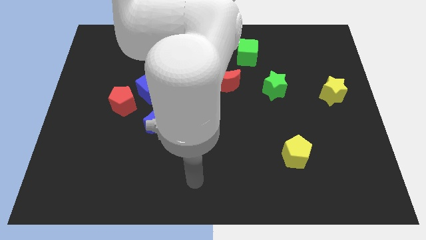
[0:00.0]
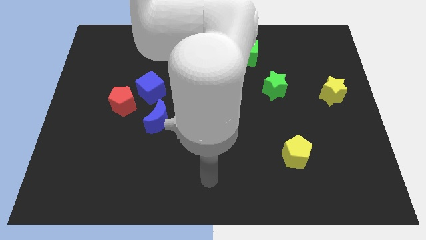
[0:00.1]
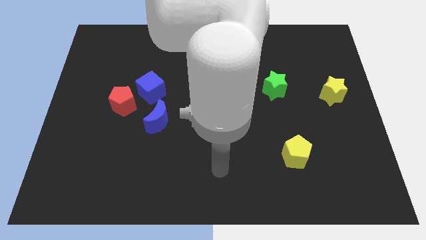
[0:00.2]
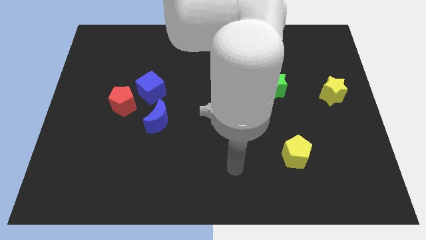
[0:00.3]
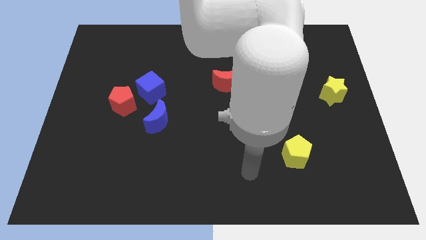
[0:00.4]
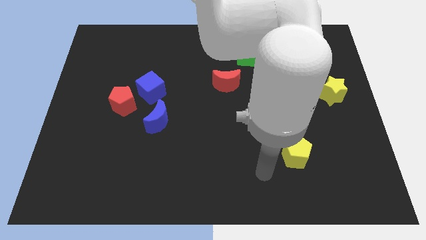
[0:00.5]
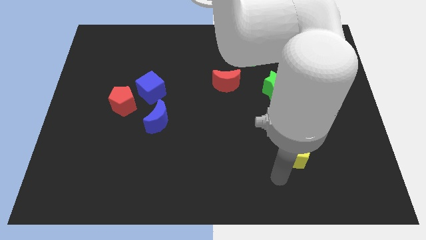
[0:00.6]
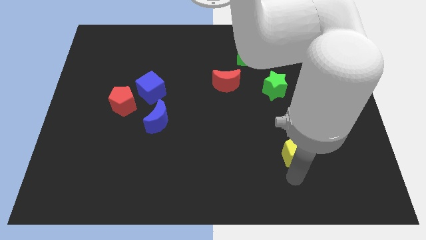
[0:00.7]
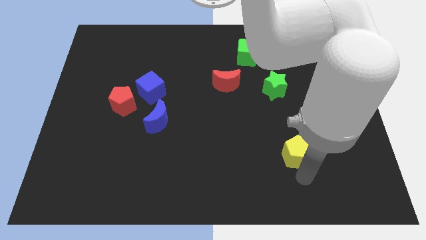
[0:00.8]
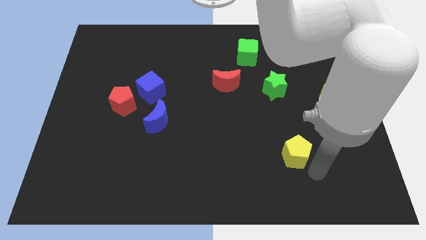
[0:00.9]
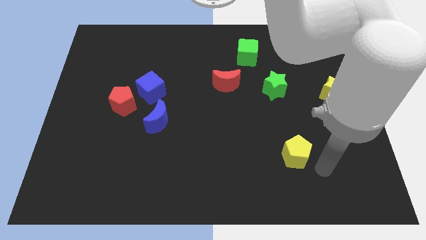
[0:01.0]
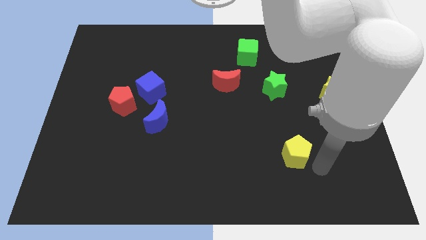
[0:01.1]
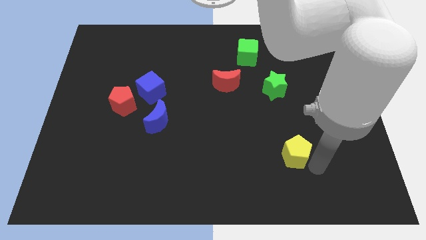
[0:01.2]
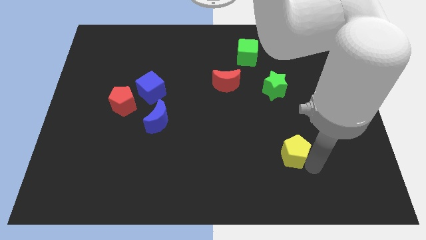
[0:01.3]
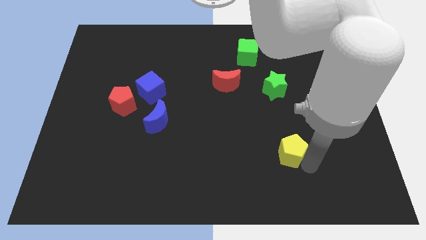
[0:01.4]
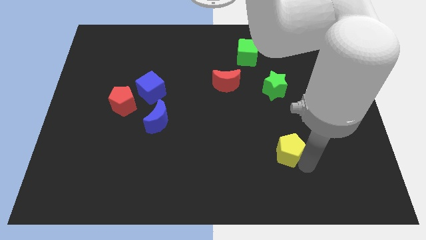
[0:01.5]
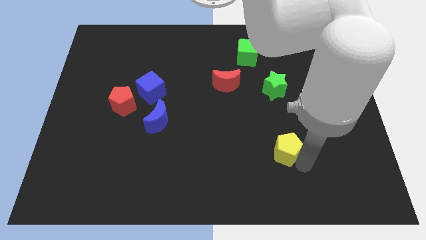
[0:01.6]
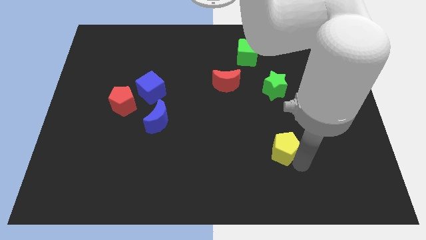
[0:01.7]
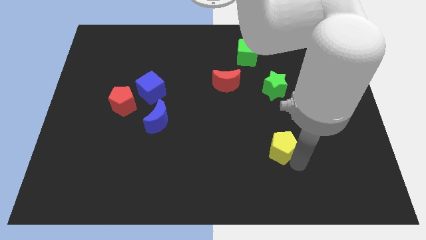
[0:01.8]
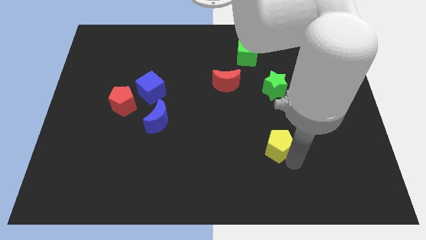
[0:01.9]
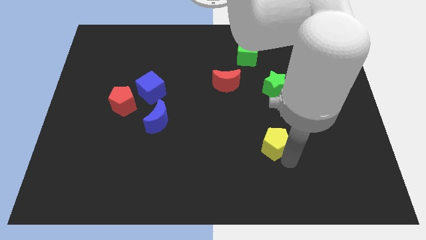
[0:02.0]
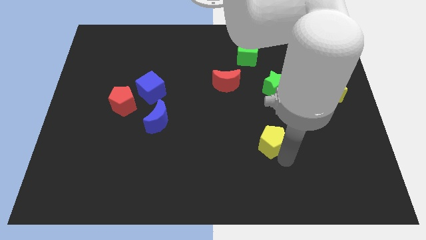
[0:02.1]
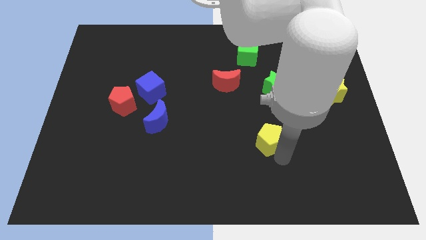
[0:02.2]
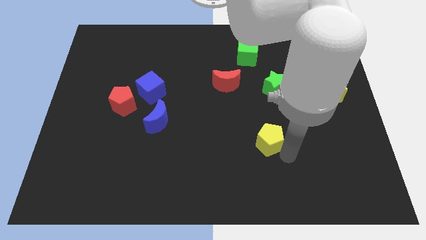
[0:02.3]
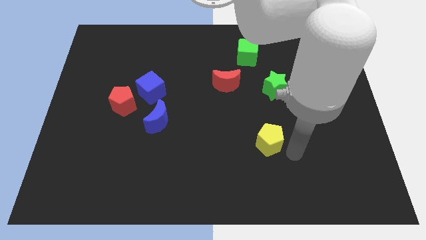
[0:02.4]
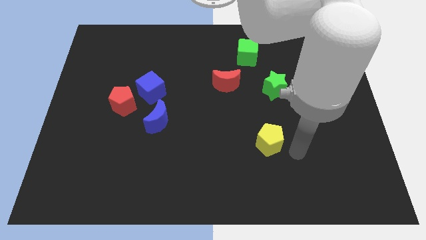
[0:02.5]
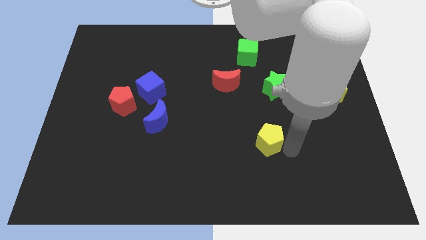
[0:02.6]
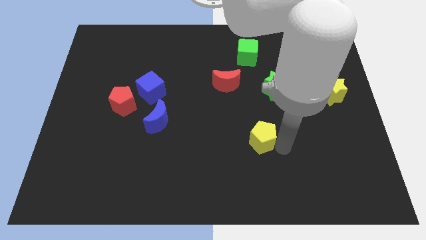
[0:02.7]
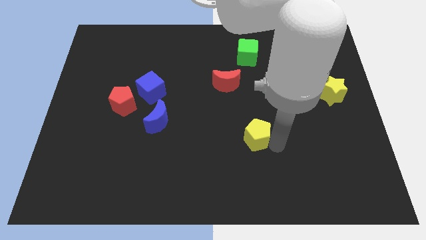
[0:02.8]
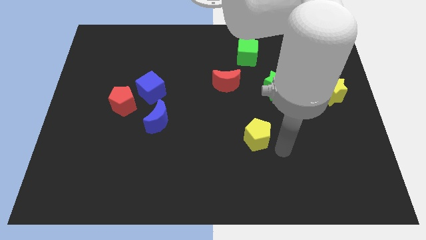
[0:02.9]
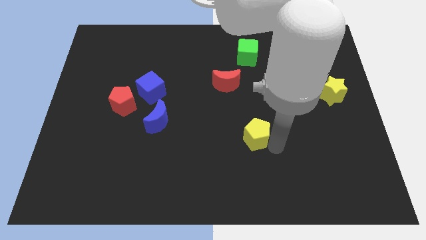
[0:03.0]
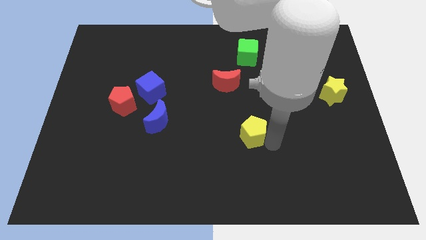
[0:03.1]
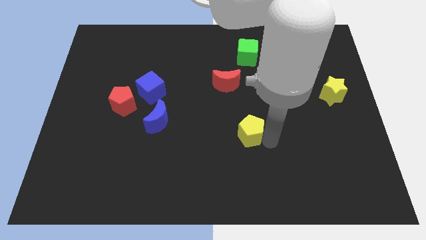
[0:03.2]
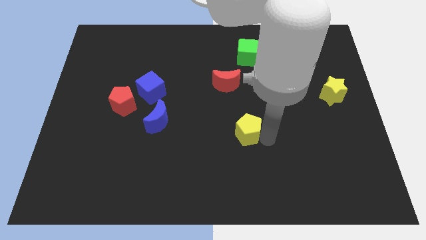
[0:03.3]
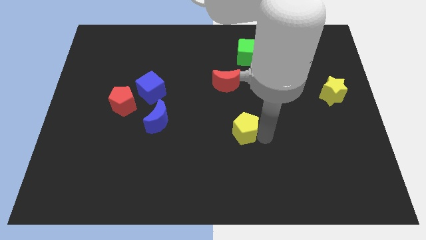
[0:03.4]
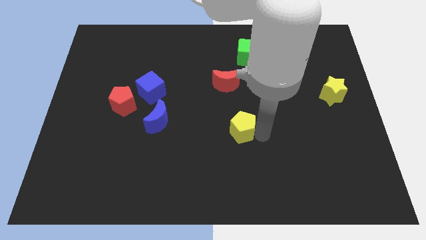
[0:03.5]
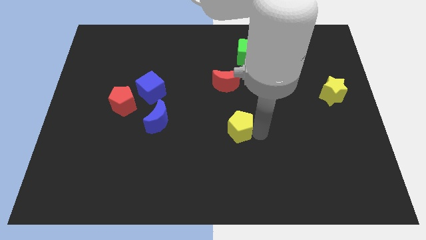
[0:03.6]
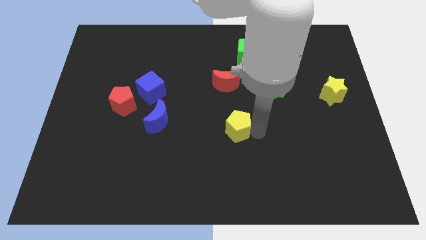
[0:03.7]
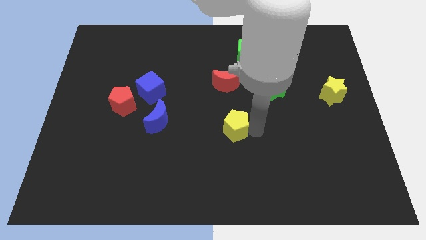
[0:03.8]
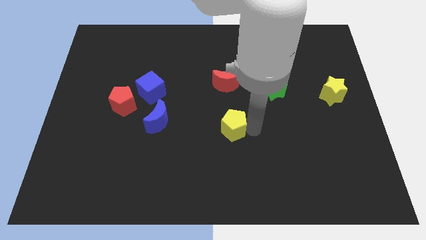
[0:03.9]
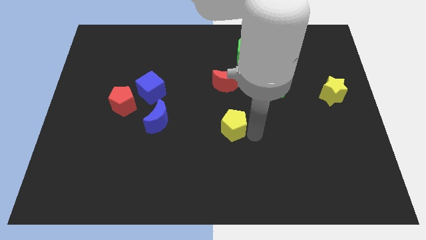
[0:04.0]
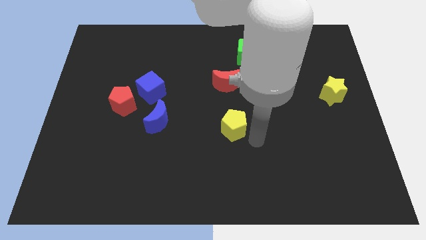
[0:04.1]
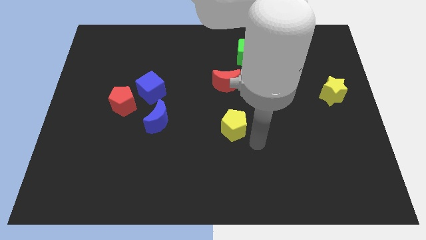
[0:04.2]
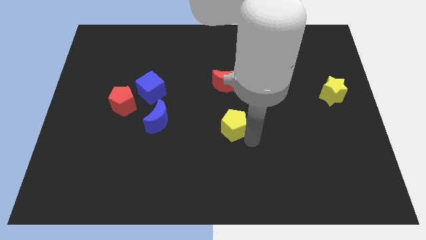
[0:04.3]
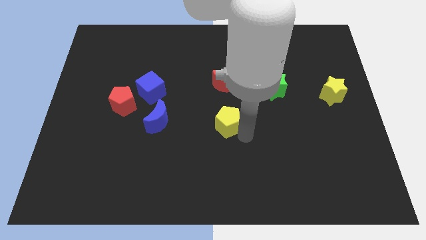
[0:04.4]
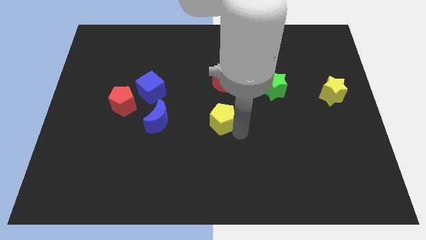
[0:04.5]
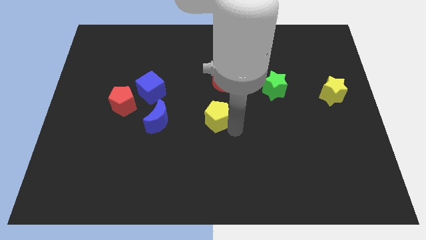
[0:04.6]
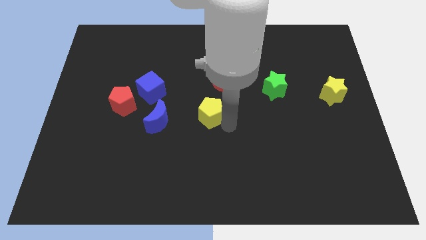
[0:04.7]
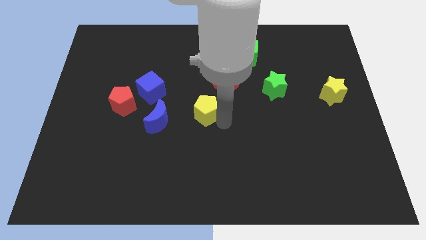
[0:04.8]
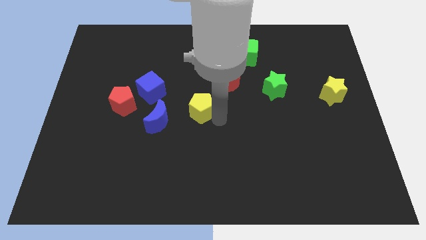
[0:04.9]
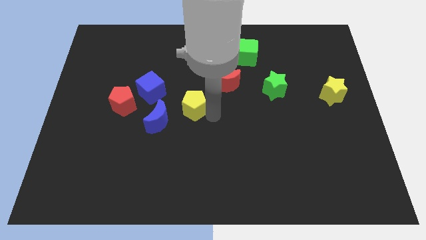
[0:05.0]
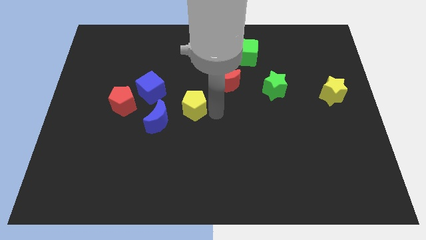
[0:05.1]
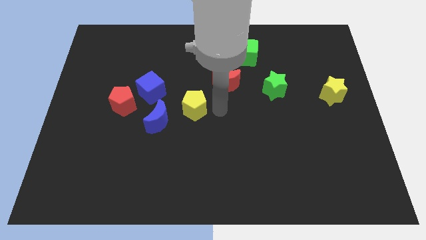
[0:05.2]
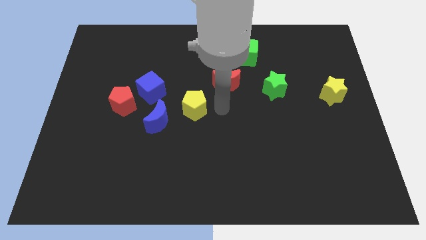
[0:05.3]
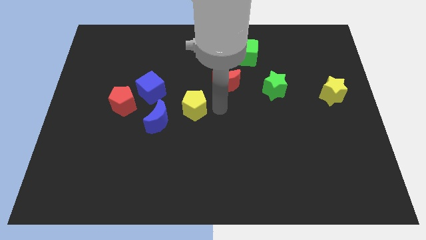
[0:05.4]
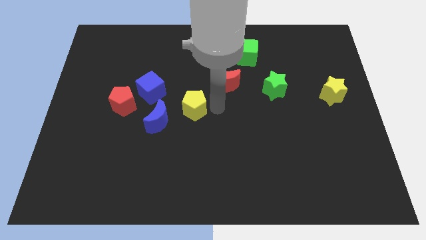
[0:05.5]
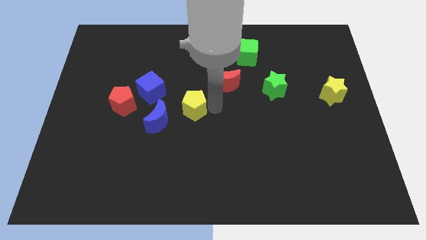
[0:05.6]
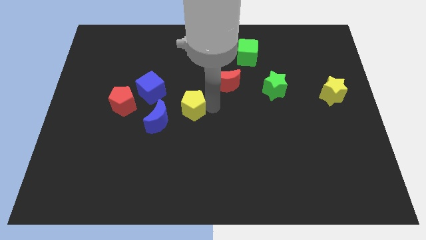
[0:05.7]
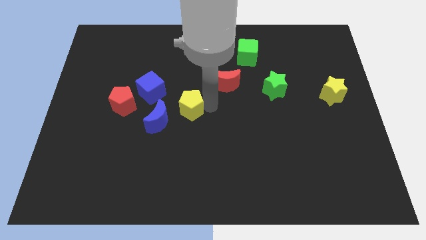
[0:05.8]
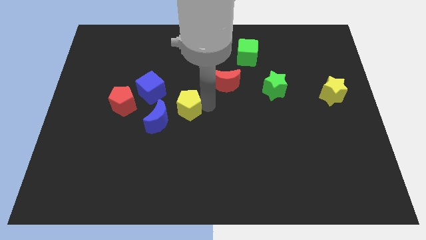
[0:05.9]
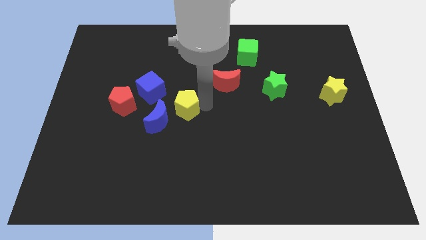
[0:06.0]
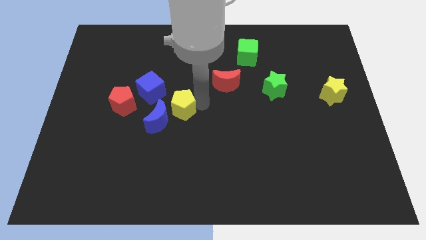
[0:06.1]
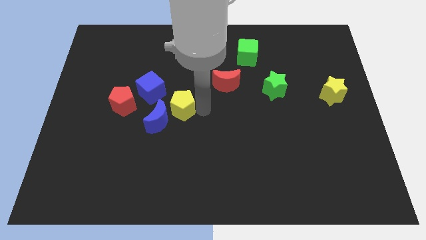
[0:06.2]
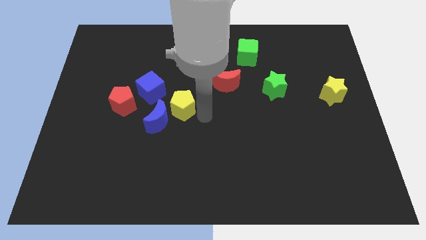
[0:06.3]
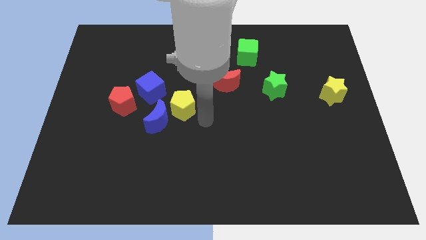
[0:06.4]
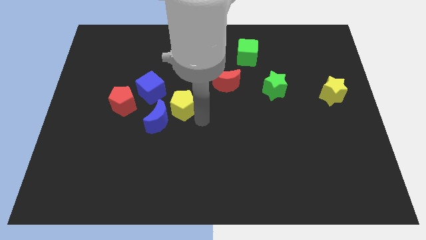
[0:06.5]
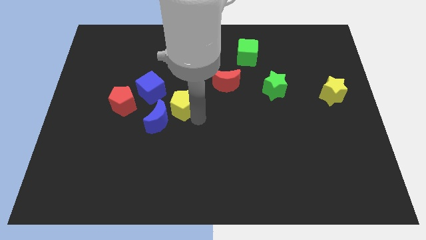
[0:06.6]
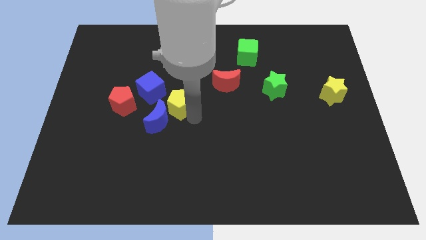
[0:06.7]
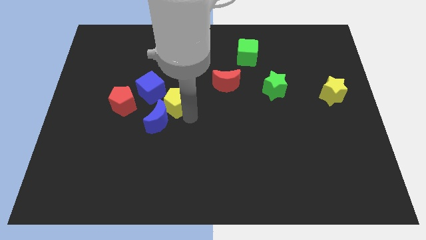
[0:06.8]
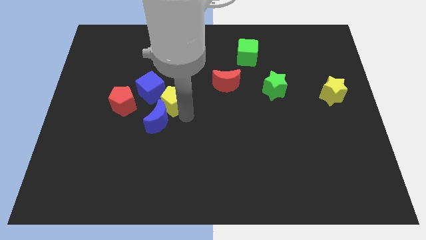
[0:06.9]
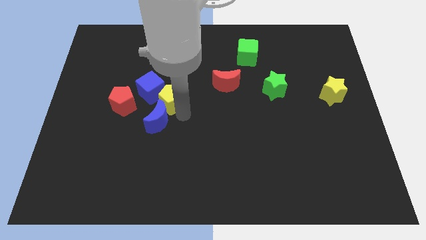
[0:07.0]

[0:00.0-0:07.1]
put the yellow pentagon to the blue cube

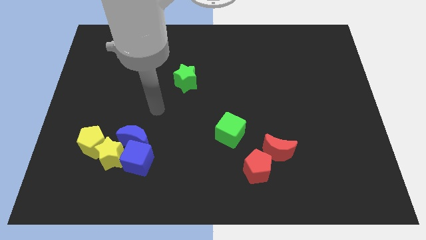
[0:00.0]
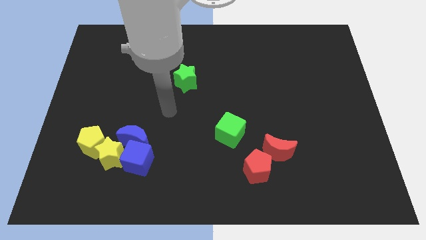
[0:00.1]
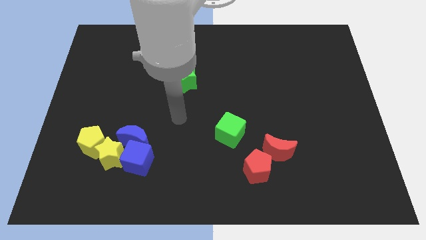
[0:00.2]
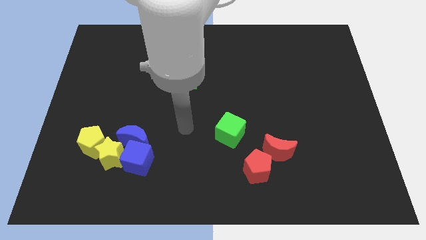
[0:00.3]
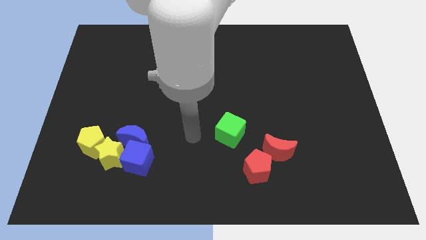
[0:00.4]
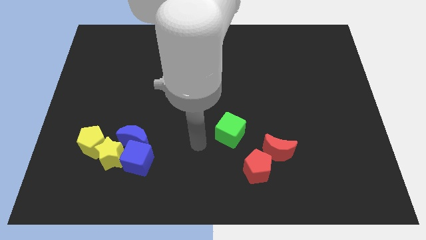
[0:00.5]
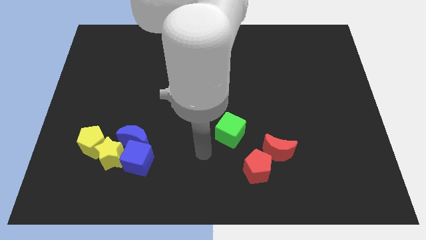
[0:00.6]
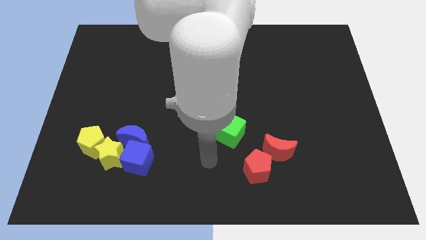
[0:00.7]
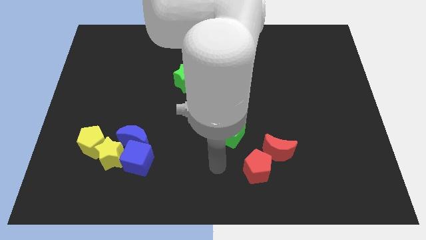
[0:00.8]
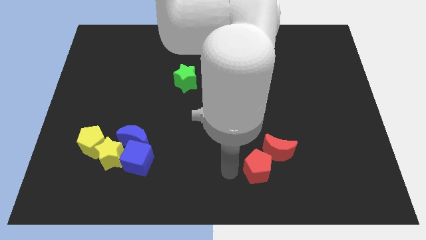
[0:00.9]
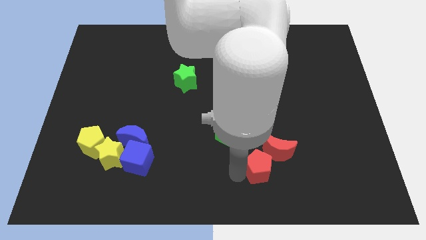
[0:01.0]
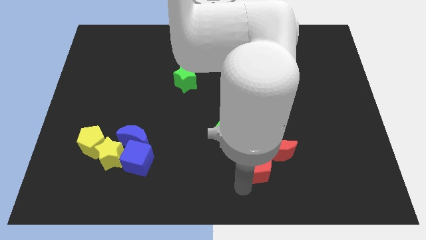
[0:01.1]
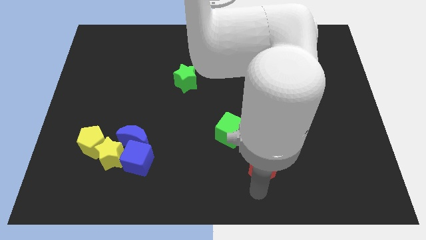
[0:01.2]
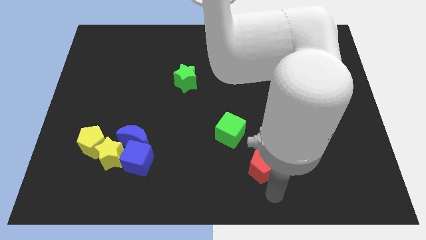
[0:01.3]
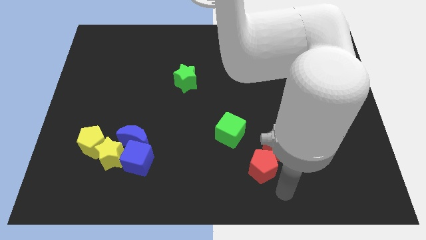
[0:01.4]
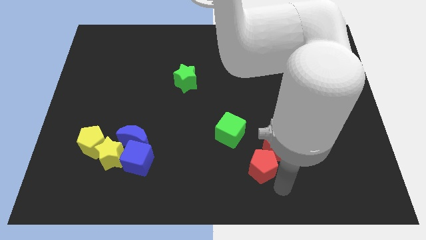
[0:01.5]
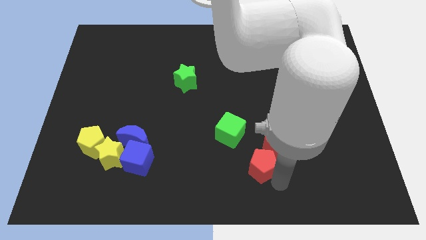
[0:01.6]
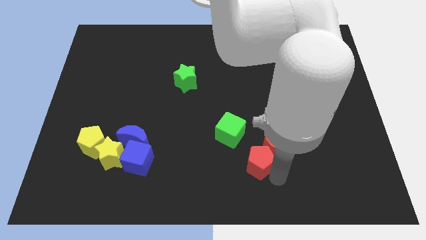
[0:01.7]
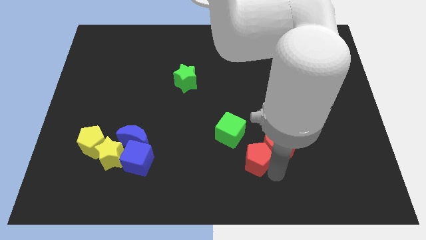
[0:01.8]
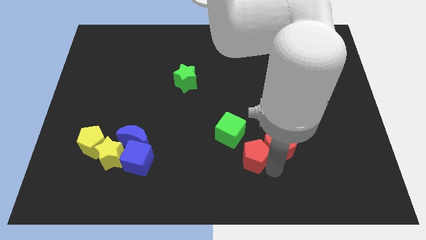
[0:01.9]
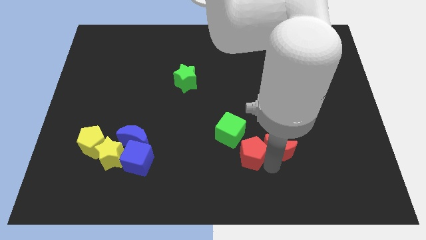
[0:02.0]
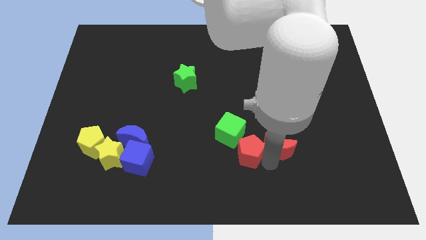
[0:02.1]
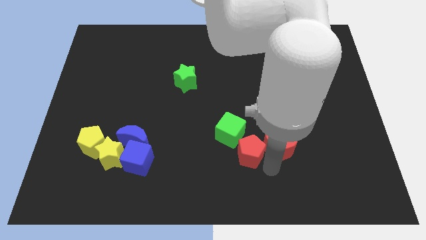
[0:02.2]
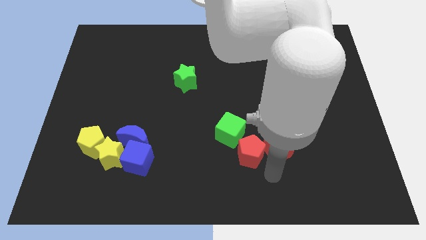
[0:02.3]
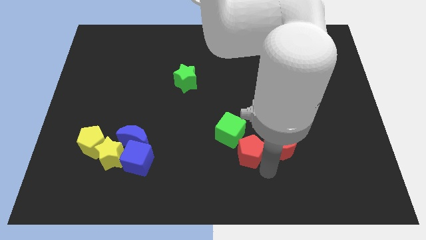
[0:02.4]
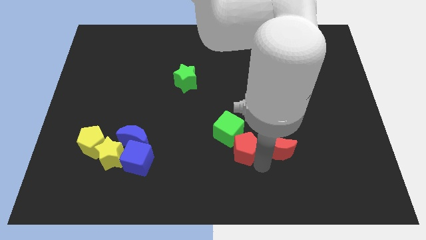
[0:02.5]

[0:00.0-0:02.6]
push the red pentagon next to the green cube
